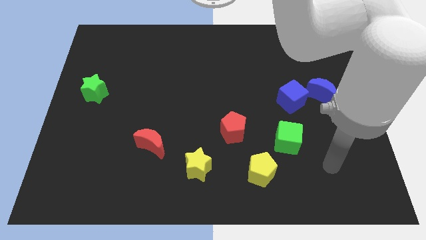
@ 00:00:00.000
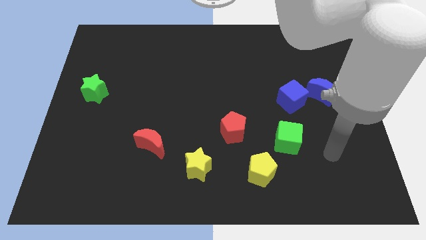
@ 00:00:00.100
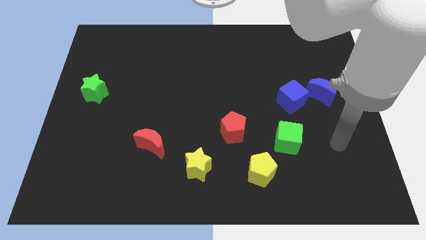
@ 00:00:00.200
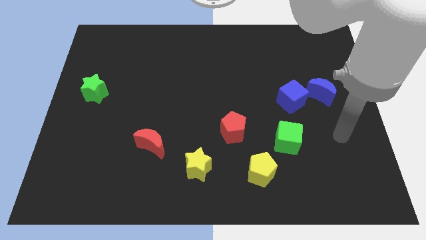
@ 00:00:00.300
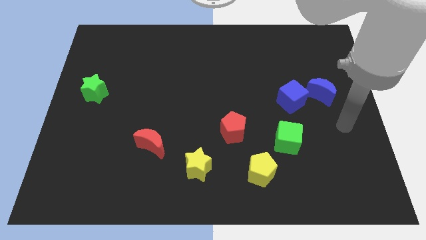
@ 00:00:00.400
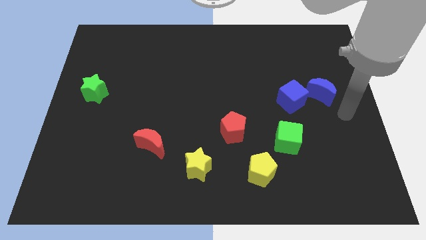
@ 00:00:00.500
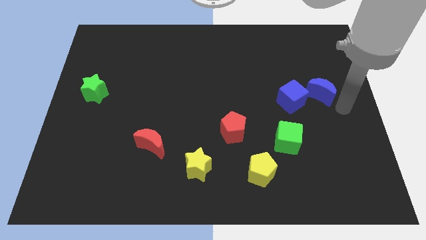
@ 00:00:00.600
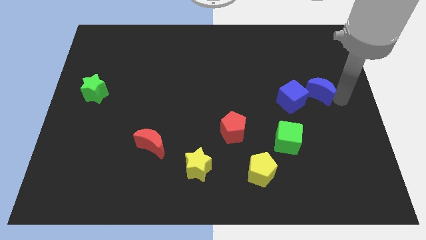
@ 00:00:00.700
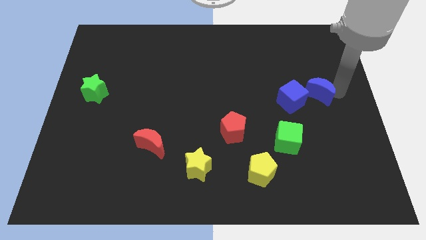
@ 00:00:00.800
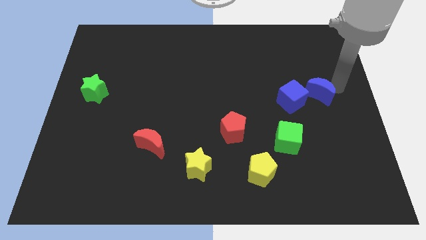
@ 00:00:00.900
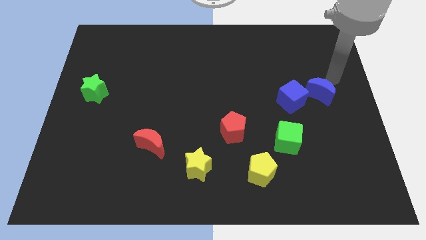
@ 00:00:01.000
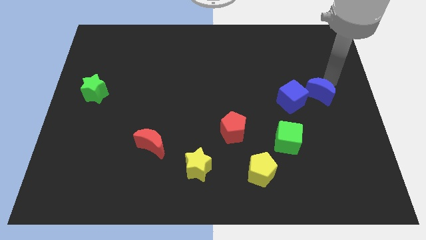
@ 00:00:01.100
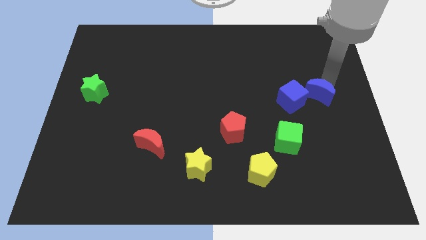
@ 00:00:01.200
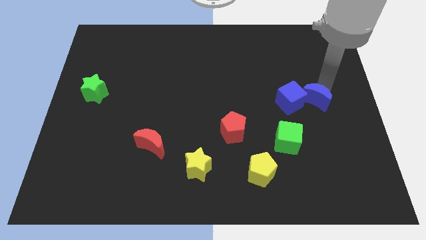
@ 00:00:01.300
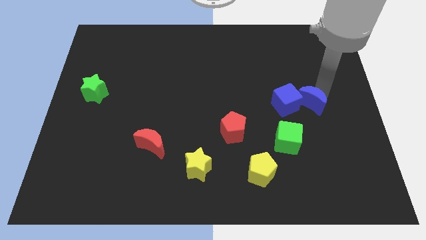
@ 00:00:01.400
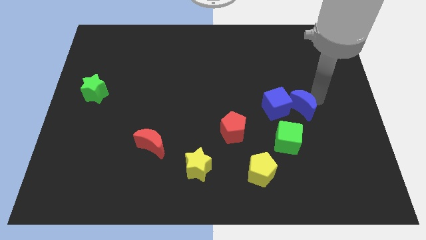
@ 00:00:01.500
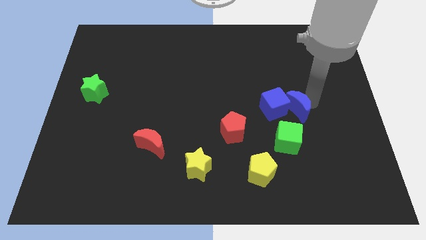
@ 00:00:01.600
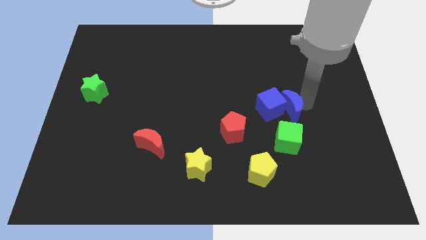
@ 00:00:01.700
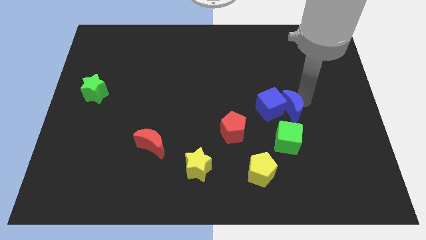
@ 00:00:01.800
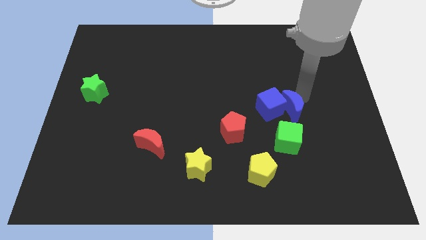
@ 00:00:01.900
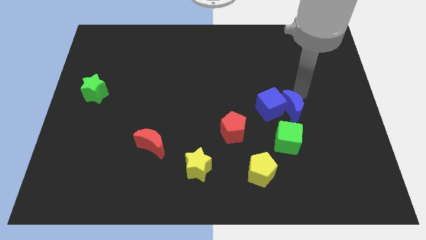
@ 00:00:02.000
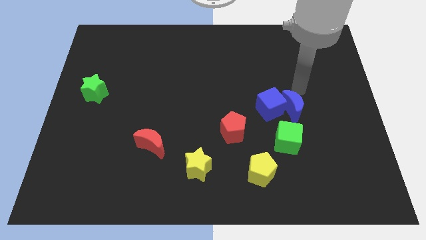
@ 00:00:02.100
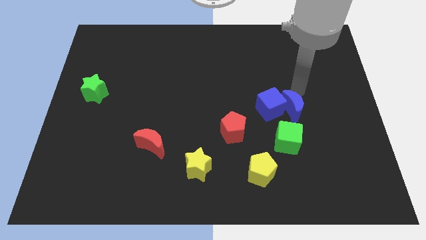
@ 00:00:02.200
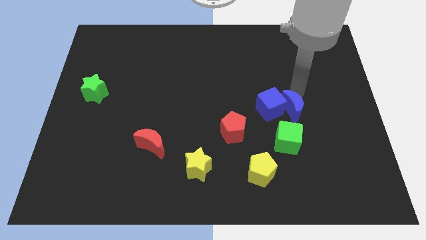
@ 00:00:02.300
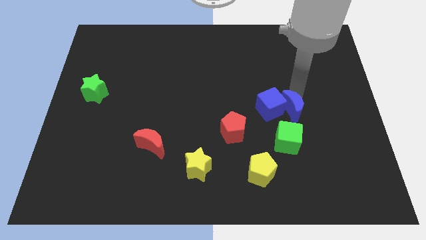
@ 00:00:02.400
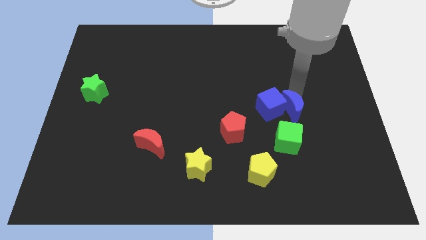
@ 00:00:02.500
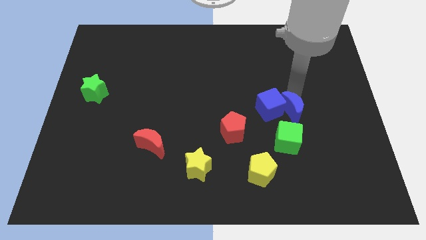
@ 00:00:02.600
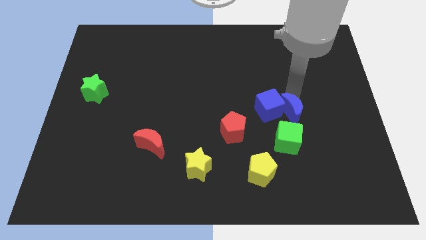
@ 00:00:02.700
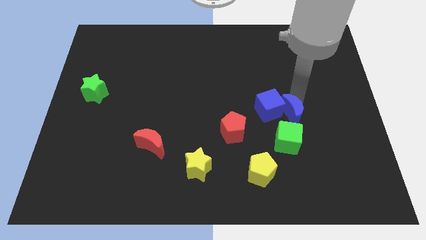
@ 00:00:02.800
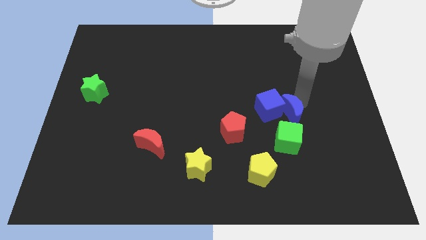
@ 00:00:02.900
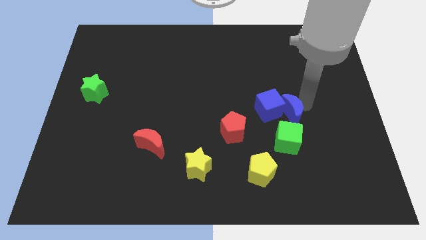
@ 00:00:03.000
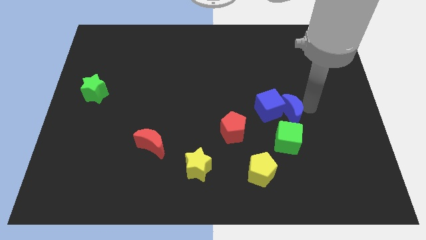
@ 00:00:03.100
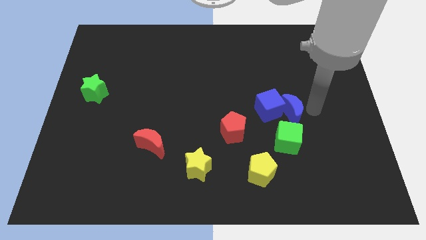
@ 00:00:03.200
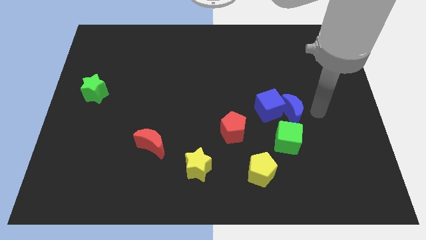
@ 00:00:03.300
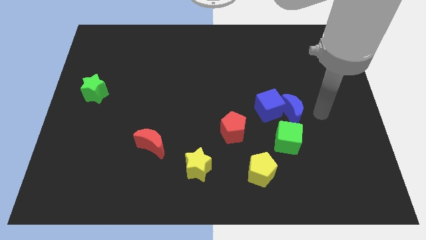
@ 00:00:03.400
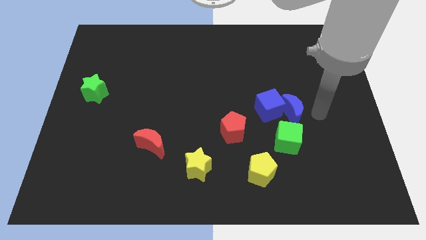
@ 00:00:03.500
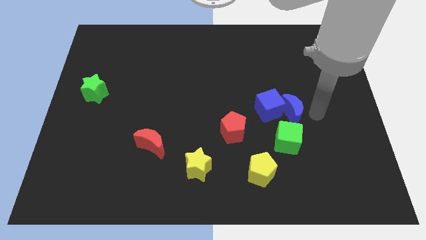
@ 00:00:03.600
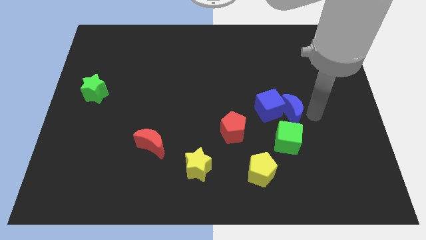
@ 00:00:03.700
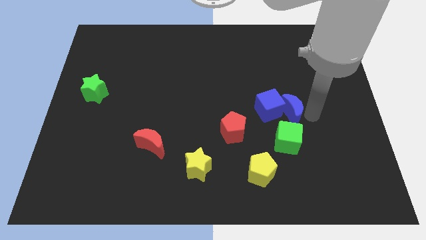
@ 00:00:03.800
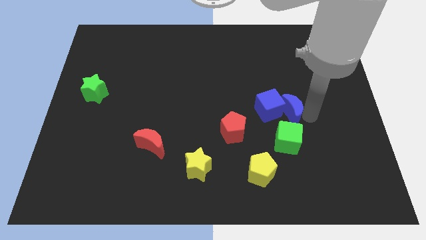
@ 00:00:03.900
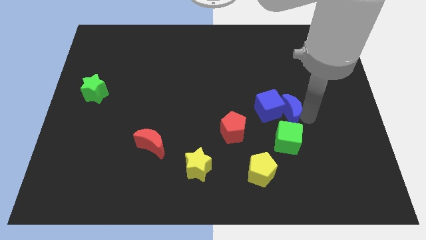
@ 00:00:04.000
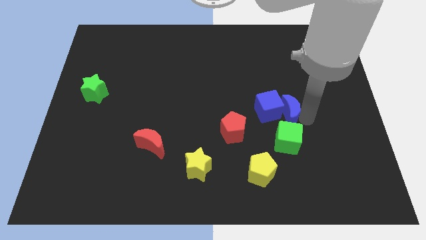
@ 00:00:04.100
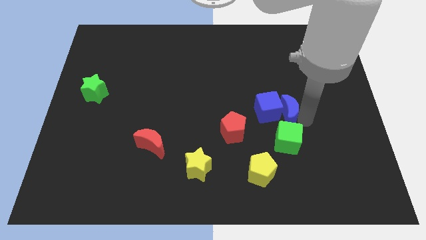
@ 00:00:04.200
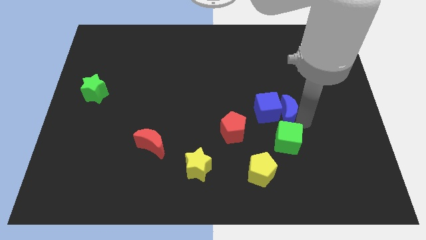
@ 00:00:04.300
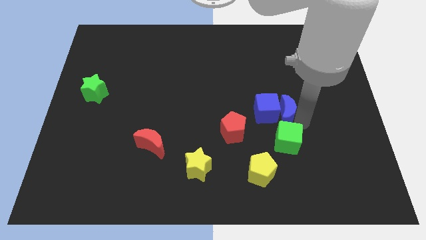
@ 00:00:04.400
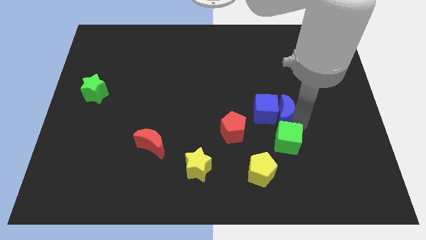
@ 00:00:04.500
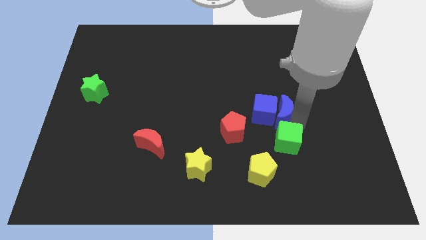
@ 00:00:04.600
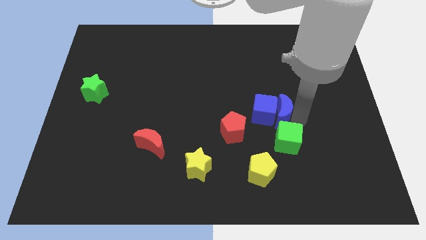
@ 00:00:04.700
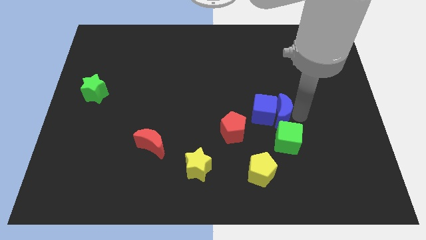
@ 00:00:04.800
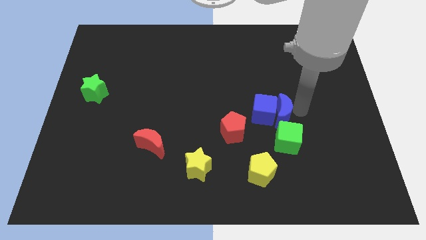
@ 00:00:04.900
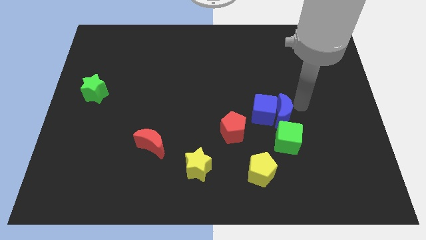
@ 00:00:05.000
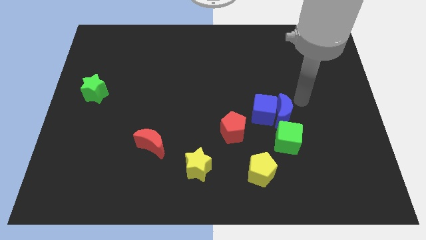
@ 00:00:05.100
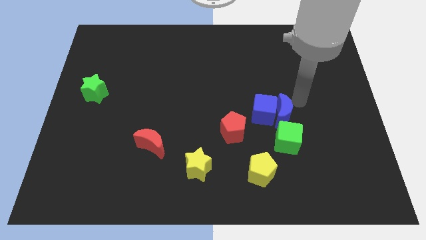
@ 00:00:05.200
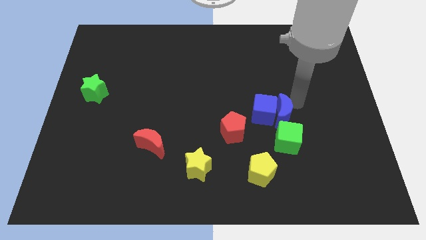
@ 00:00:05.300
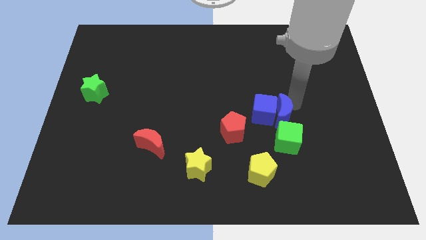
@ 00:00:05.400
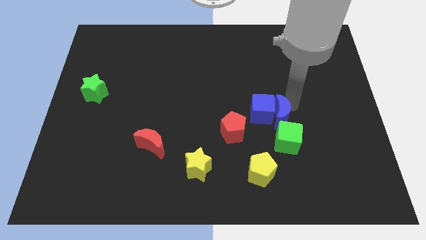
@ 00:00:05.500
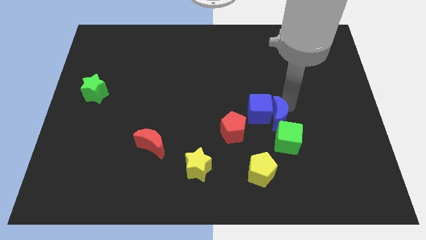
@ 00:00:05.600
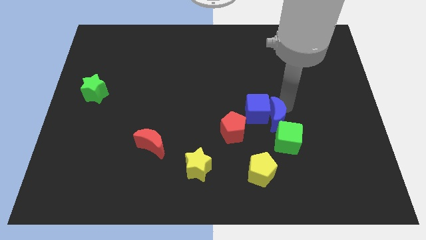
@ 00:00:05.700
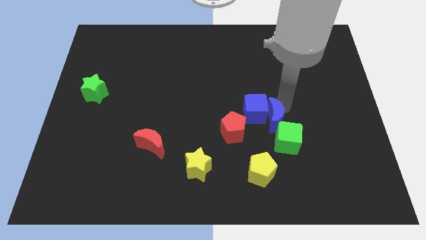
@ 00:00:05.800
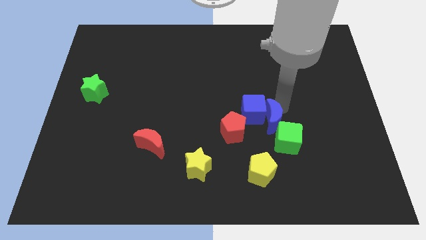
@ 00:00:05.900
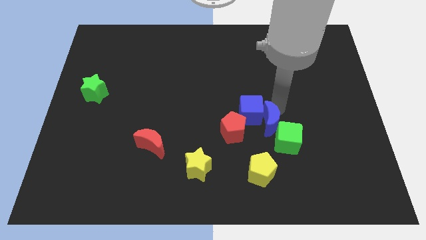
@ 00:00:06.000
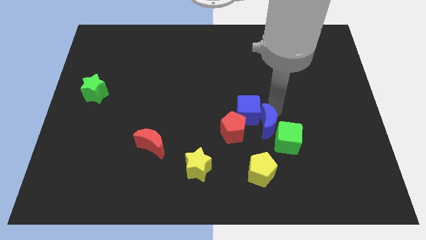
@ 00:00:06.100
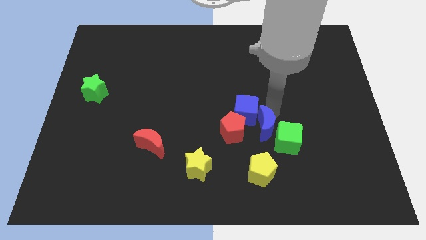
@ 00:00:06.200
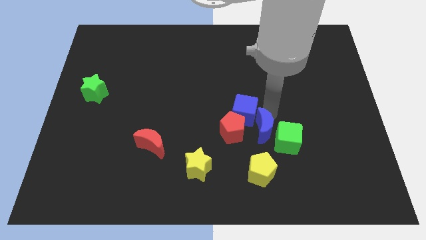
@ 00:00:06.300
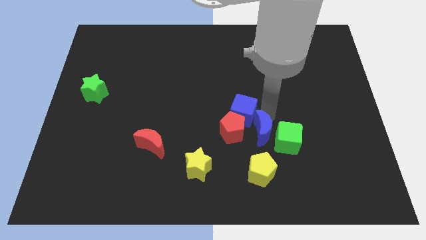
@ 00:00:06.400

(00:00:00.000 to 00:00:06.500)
move the blue moon diagonally down and to the right of the red pentagon

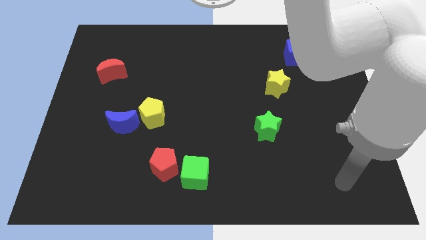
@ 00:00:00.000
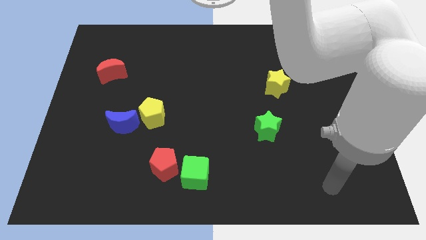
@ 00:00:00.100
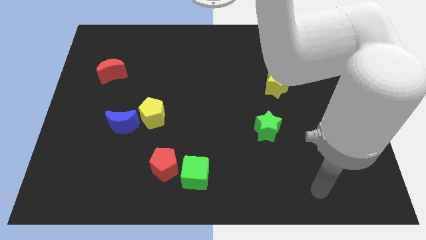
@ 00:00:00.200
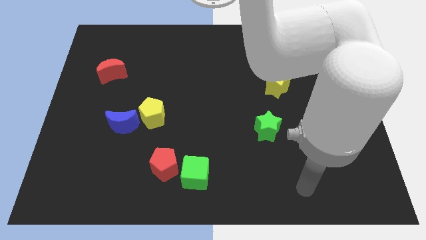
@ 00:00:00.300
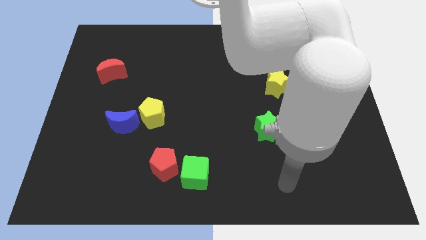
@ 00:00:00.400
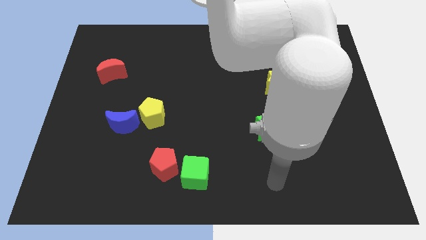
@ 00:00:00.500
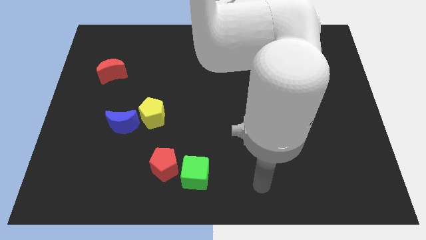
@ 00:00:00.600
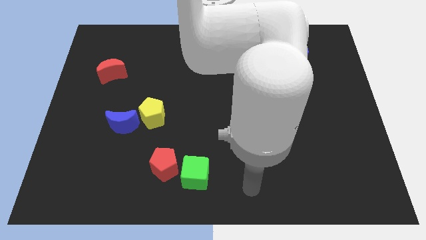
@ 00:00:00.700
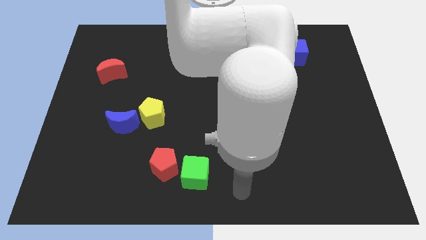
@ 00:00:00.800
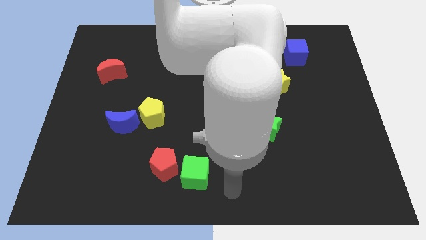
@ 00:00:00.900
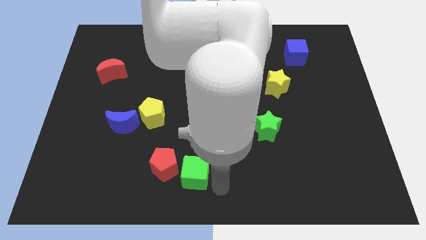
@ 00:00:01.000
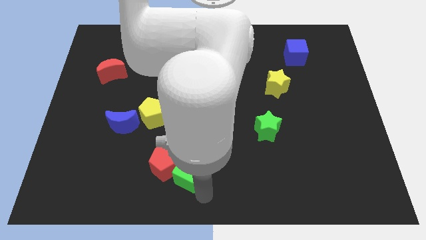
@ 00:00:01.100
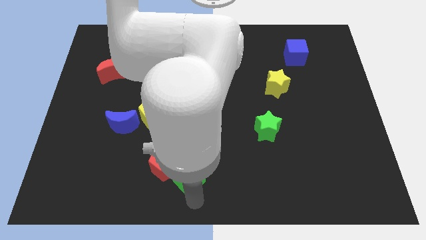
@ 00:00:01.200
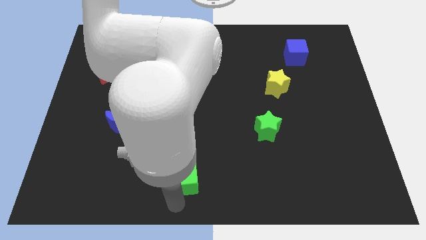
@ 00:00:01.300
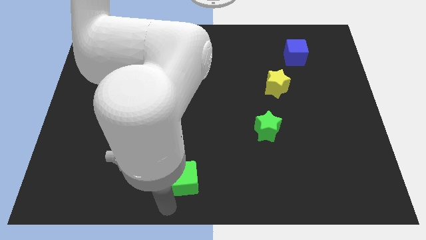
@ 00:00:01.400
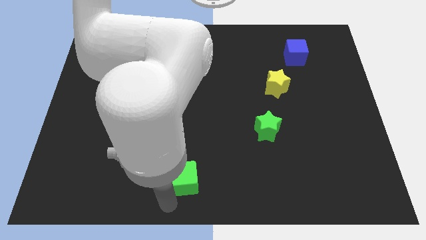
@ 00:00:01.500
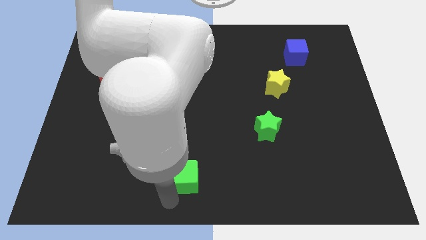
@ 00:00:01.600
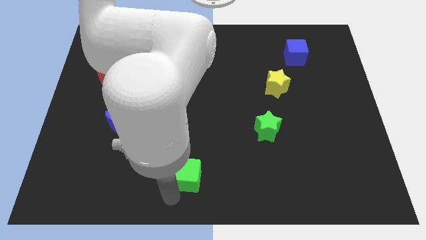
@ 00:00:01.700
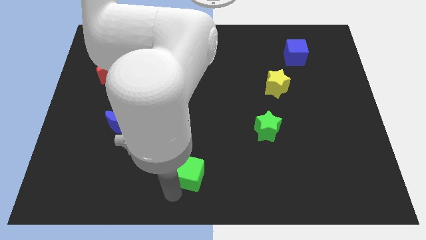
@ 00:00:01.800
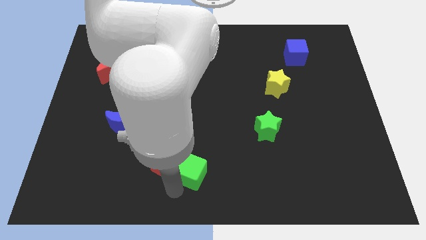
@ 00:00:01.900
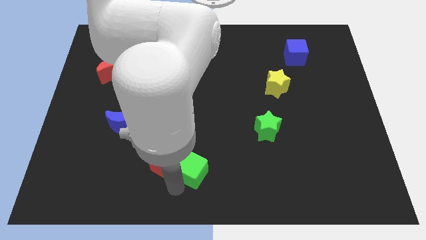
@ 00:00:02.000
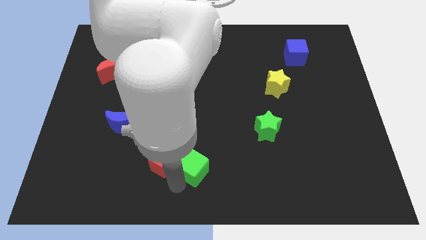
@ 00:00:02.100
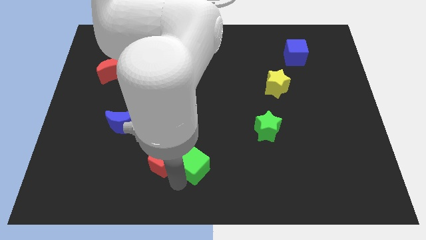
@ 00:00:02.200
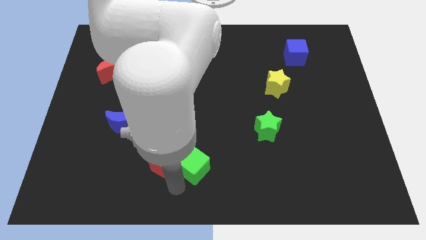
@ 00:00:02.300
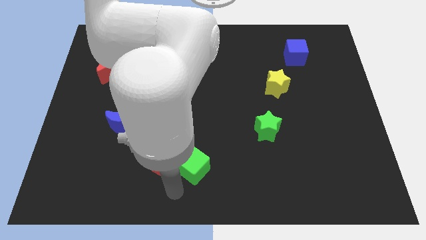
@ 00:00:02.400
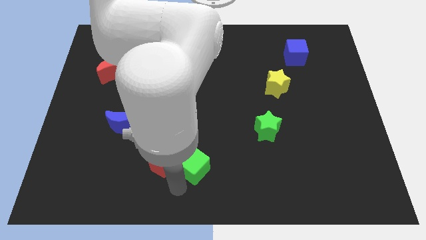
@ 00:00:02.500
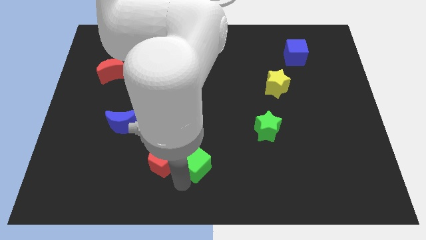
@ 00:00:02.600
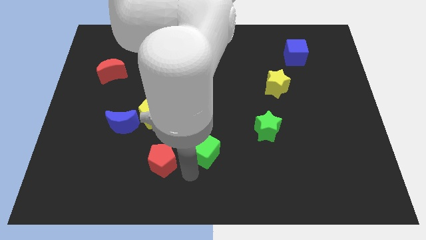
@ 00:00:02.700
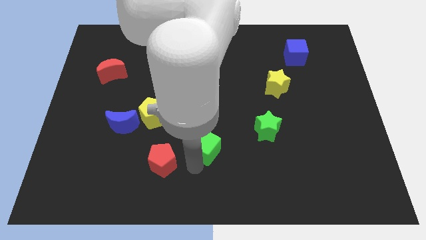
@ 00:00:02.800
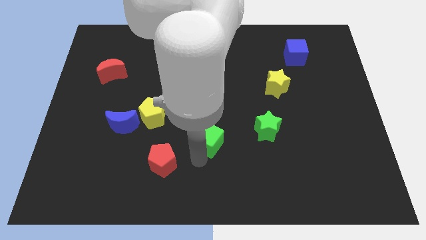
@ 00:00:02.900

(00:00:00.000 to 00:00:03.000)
move the green cube to the left side of the green star
